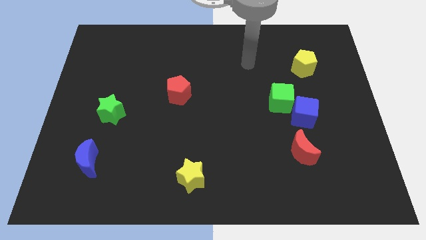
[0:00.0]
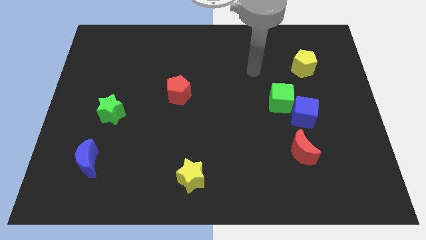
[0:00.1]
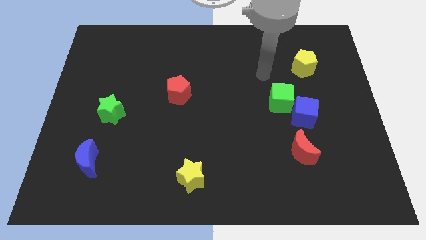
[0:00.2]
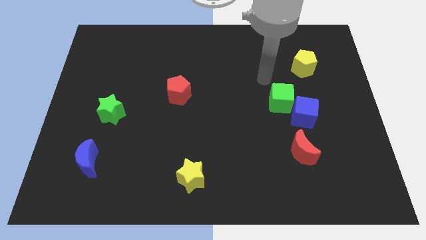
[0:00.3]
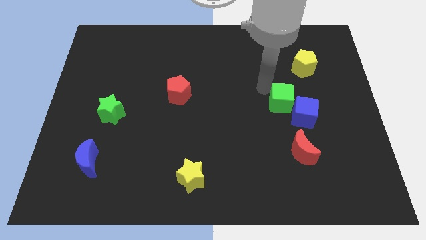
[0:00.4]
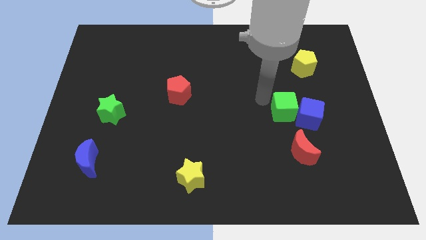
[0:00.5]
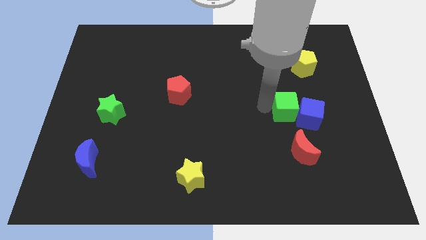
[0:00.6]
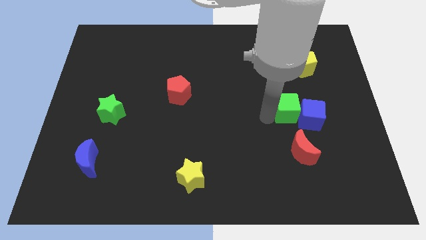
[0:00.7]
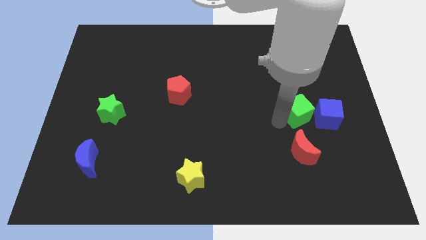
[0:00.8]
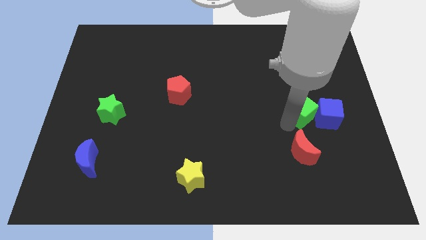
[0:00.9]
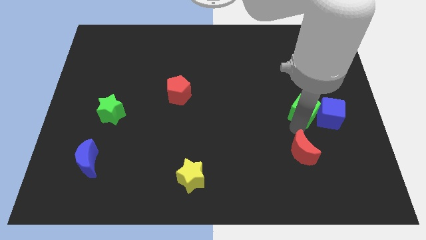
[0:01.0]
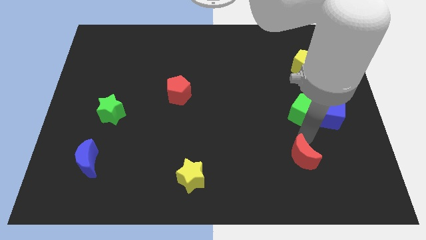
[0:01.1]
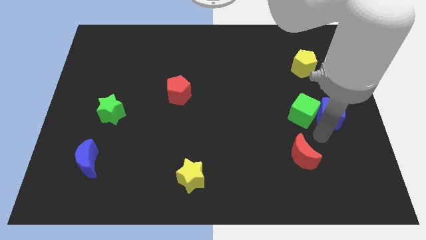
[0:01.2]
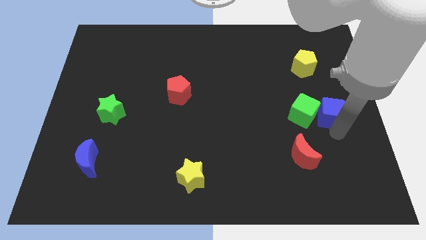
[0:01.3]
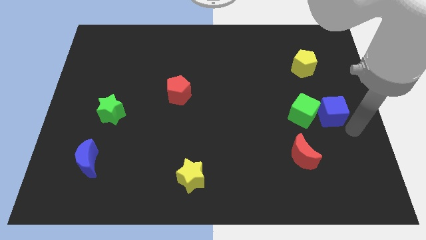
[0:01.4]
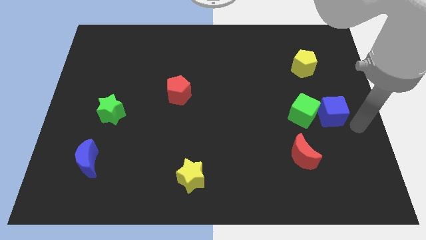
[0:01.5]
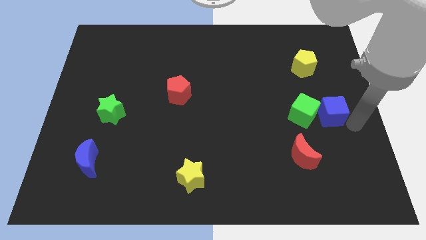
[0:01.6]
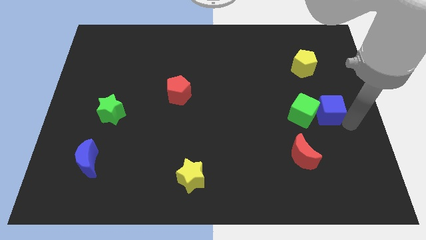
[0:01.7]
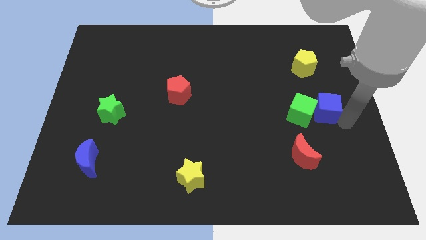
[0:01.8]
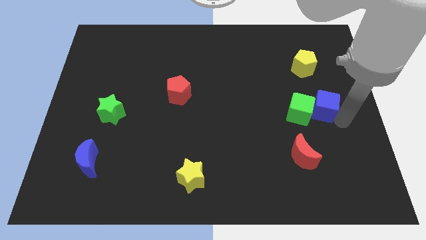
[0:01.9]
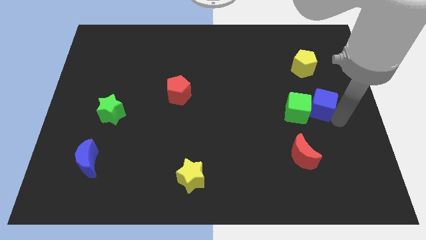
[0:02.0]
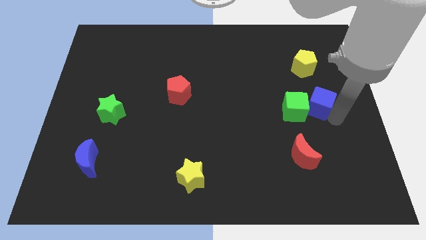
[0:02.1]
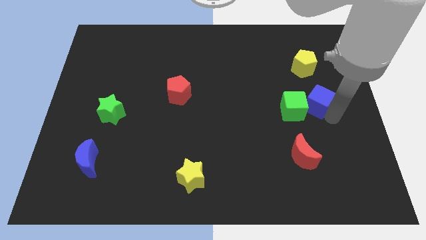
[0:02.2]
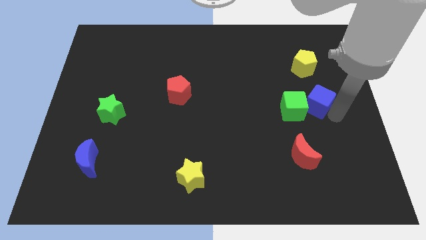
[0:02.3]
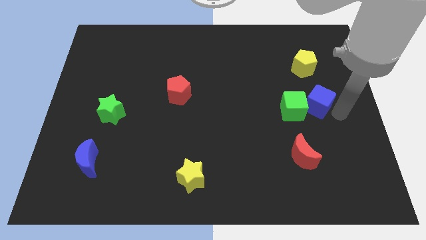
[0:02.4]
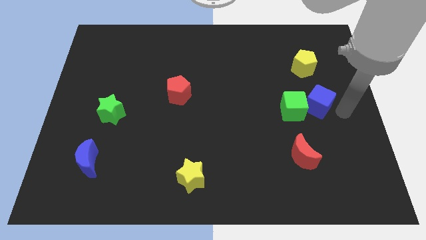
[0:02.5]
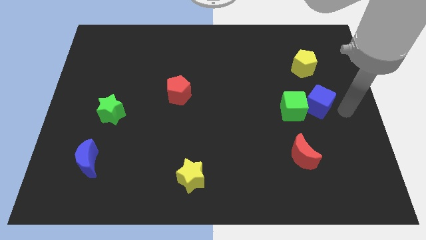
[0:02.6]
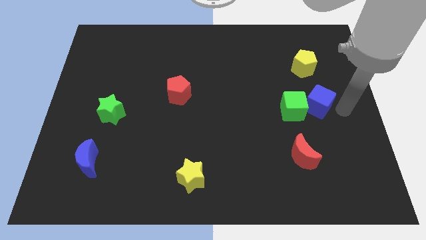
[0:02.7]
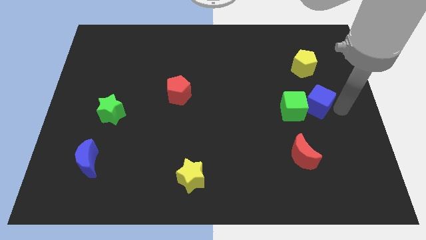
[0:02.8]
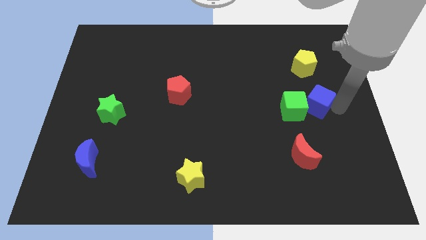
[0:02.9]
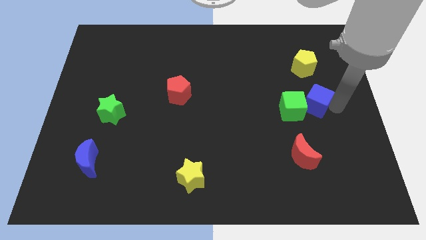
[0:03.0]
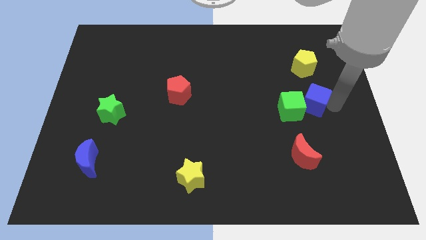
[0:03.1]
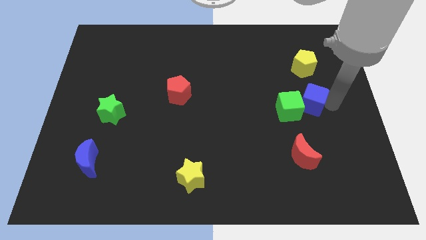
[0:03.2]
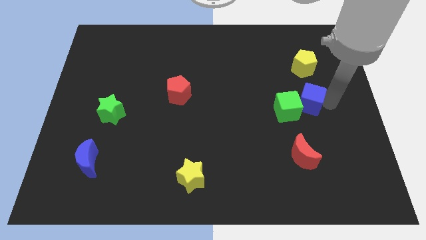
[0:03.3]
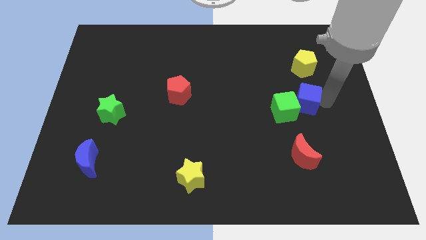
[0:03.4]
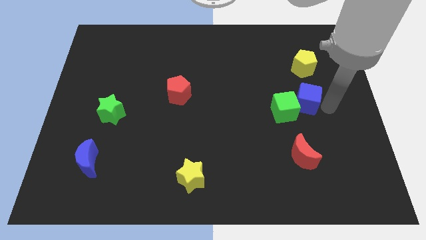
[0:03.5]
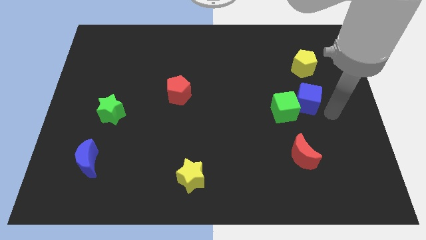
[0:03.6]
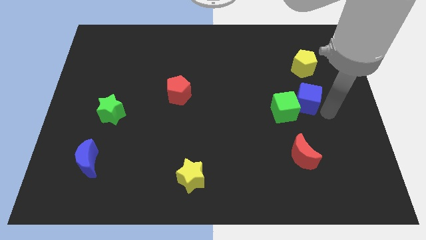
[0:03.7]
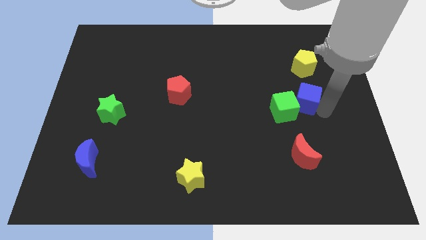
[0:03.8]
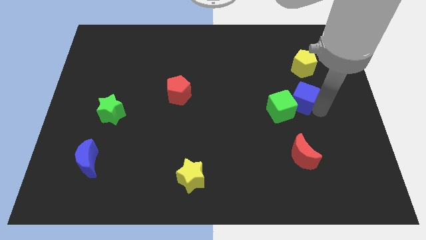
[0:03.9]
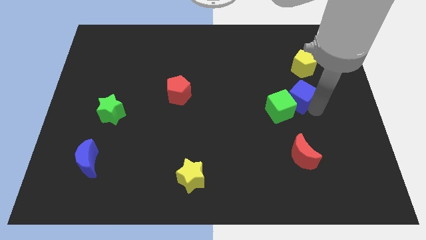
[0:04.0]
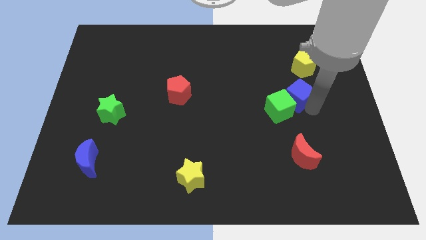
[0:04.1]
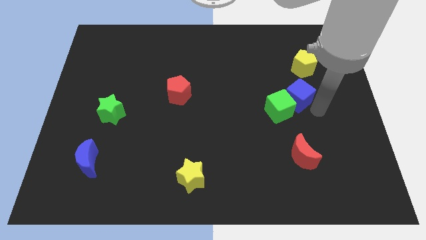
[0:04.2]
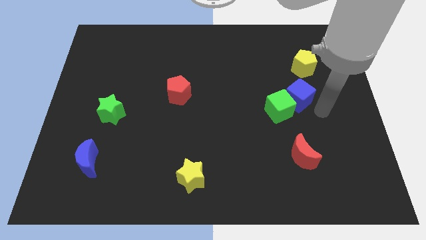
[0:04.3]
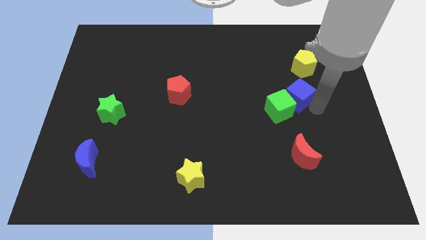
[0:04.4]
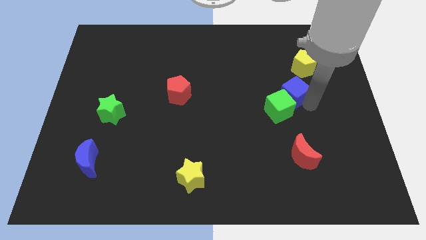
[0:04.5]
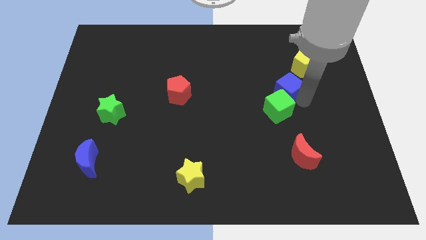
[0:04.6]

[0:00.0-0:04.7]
slide the blue cube a bit diagonally up and to the left

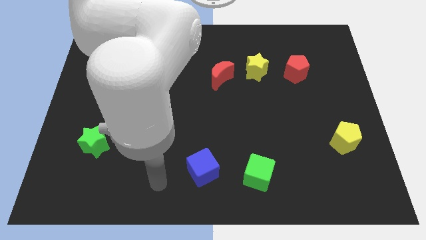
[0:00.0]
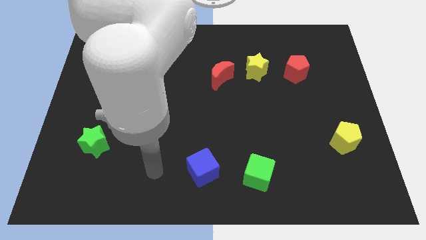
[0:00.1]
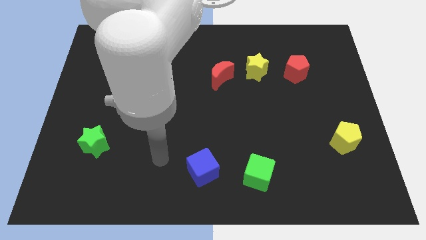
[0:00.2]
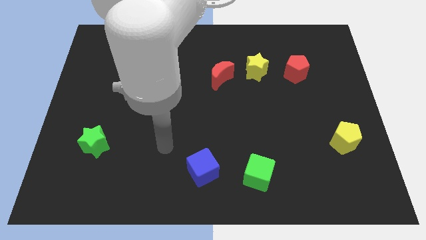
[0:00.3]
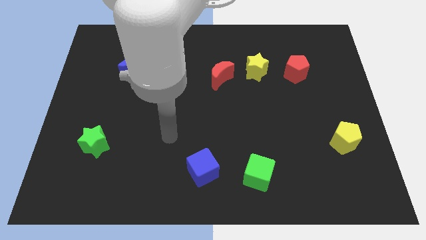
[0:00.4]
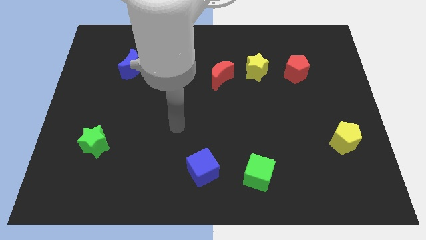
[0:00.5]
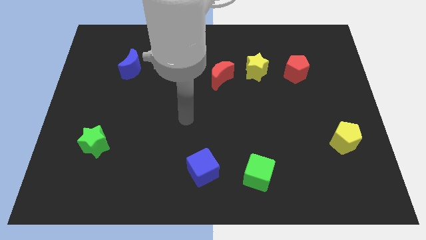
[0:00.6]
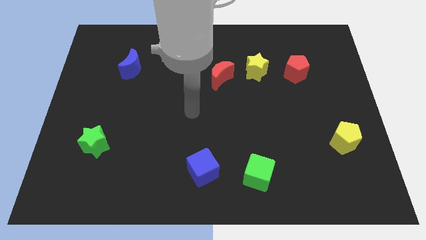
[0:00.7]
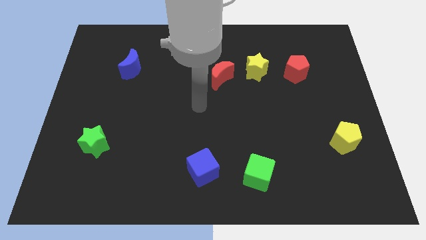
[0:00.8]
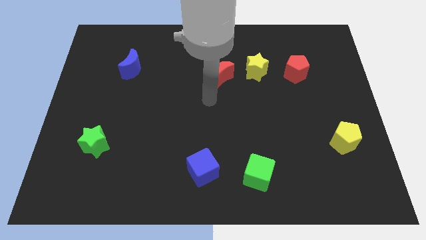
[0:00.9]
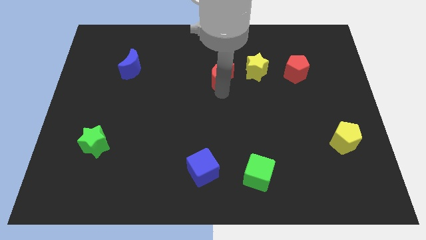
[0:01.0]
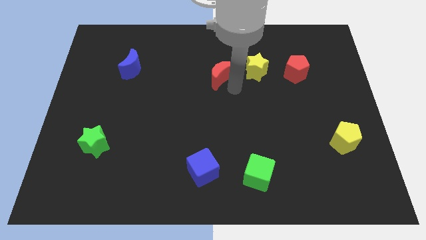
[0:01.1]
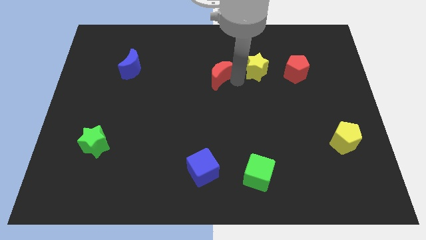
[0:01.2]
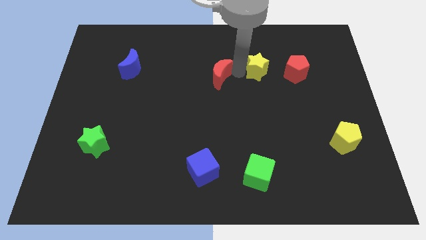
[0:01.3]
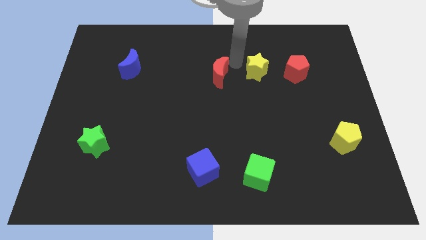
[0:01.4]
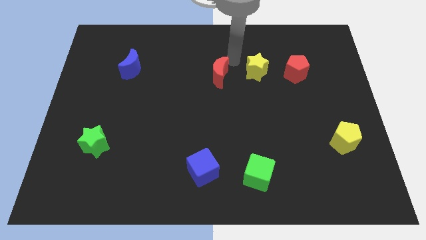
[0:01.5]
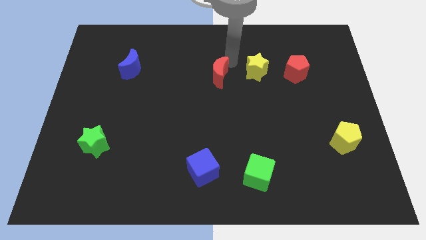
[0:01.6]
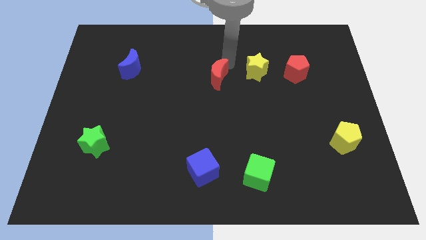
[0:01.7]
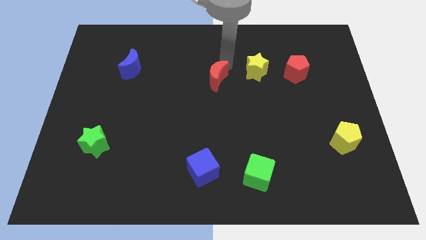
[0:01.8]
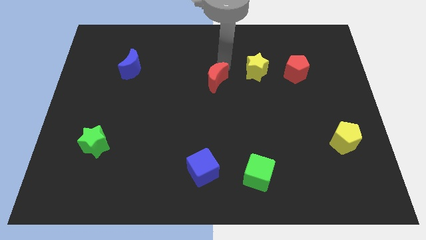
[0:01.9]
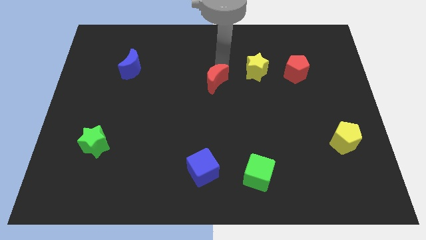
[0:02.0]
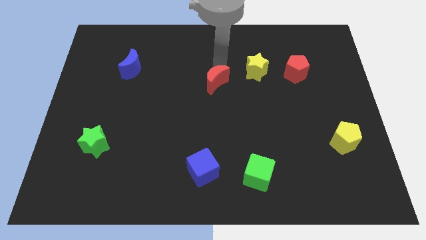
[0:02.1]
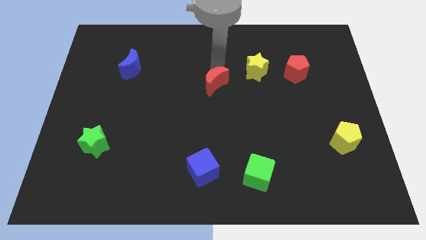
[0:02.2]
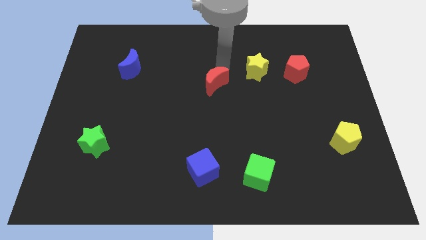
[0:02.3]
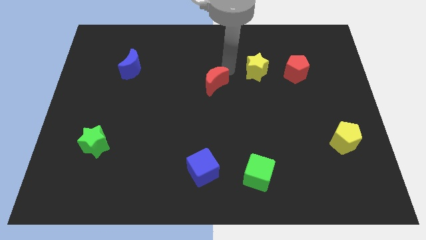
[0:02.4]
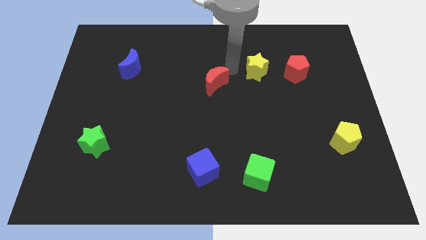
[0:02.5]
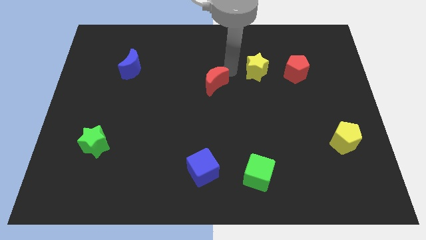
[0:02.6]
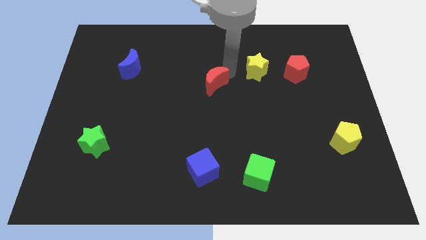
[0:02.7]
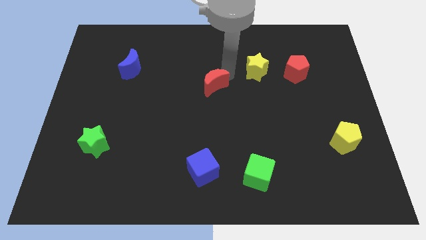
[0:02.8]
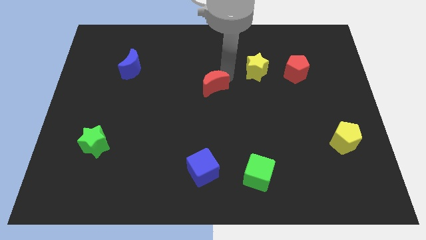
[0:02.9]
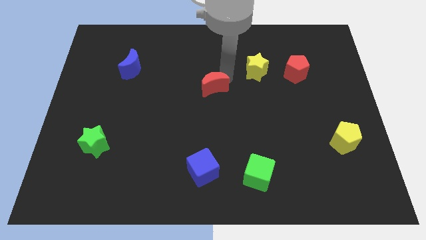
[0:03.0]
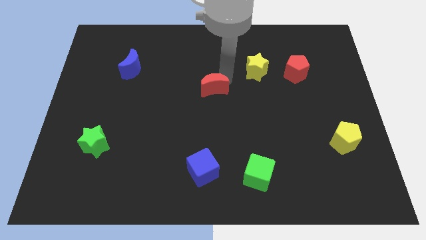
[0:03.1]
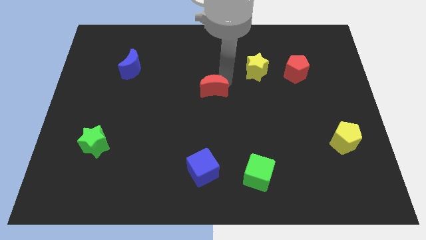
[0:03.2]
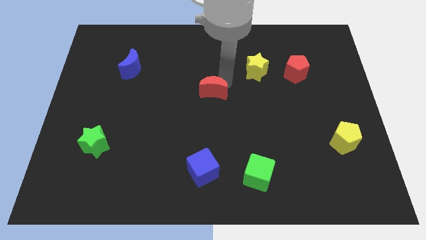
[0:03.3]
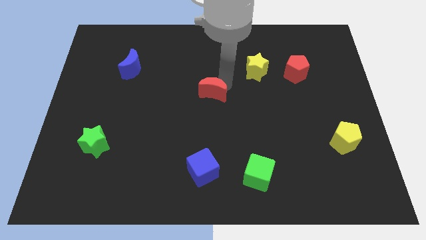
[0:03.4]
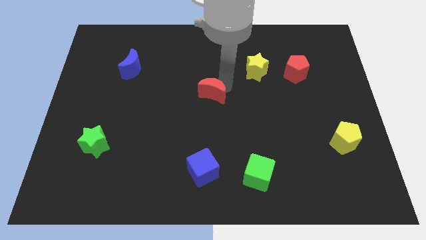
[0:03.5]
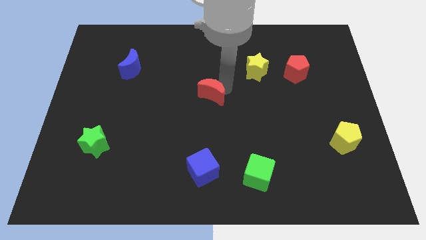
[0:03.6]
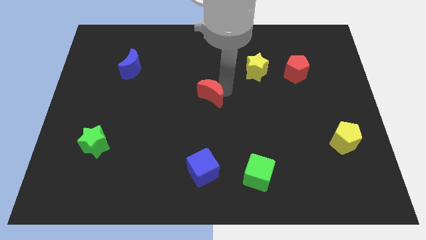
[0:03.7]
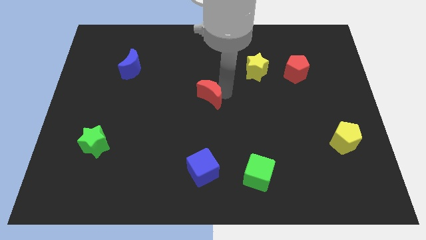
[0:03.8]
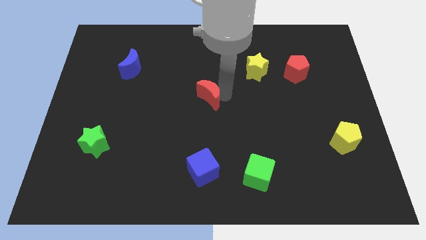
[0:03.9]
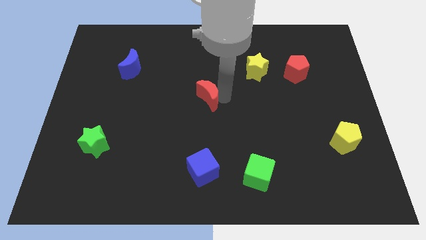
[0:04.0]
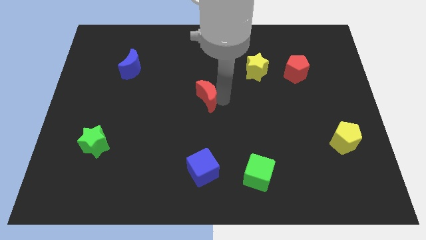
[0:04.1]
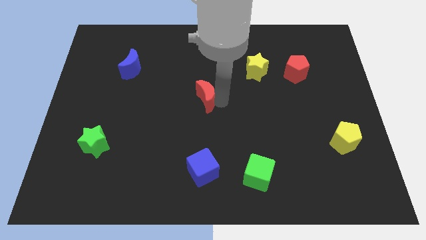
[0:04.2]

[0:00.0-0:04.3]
slide the red moon a little downwards and to the left
